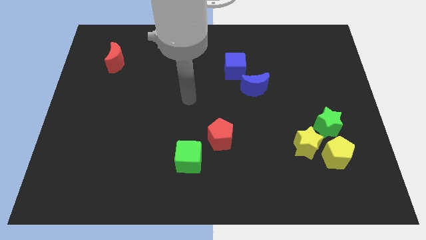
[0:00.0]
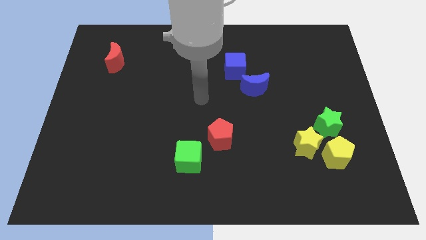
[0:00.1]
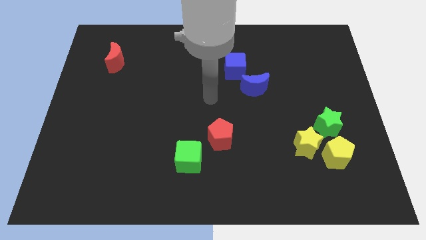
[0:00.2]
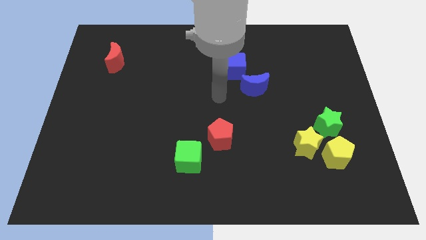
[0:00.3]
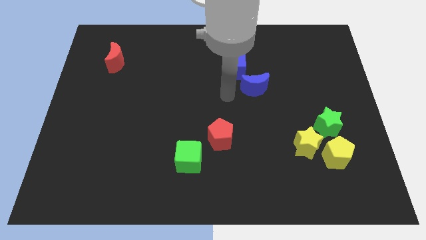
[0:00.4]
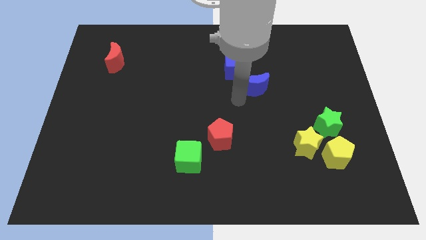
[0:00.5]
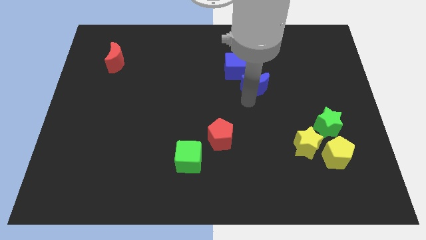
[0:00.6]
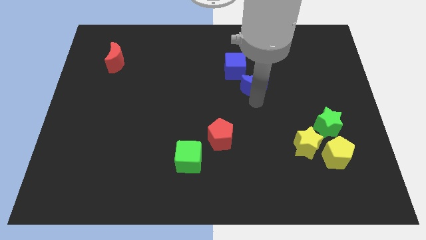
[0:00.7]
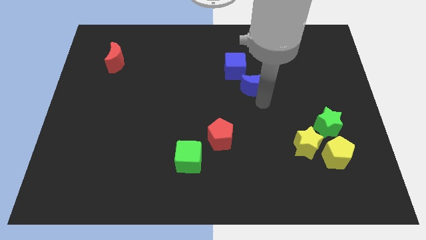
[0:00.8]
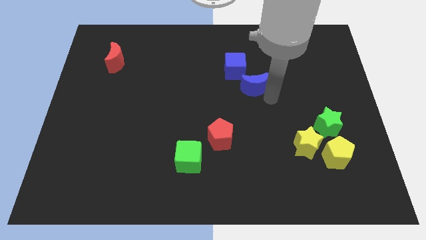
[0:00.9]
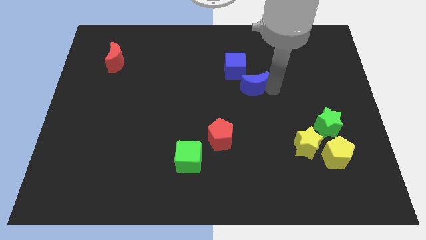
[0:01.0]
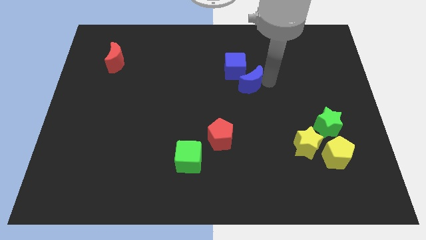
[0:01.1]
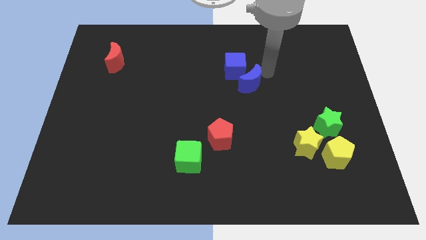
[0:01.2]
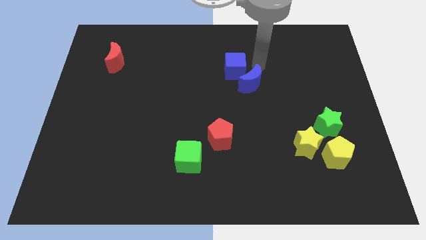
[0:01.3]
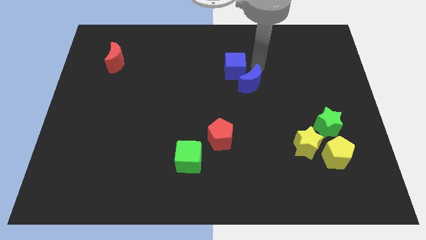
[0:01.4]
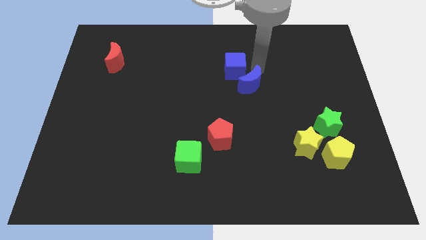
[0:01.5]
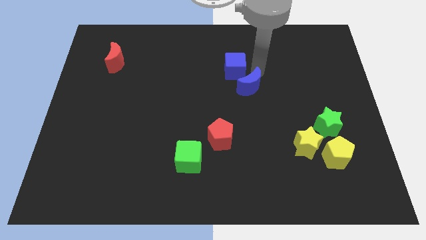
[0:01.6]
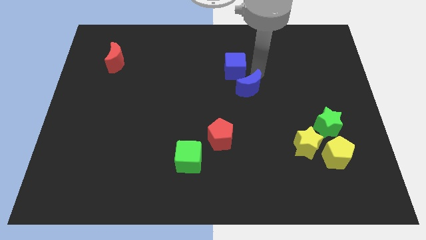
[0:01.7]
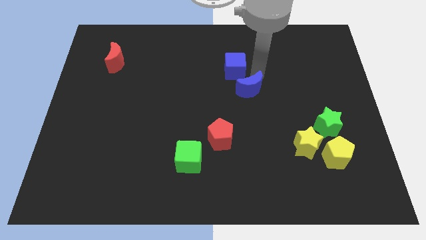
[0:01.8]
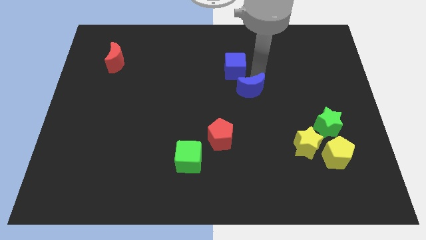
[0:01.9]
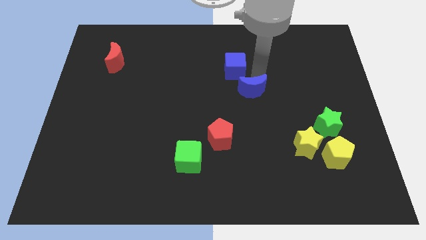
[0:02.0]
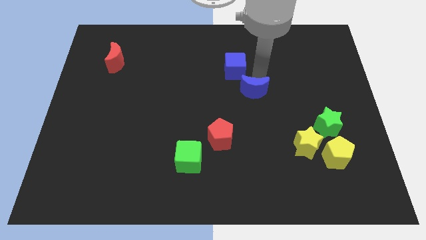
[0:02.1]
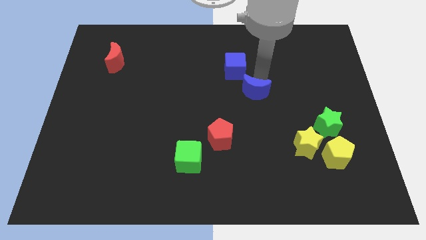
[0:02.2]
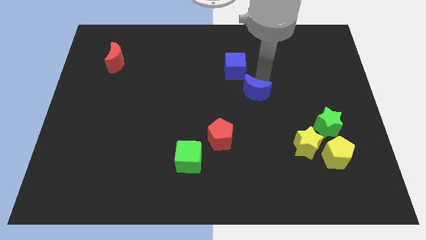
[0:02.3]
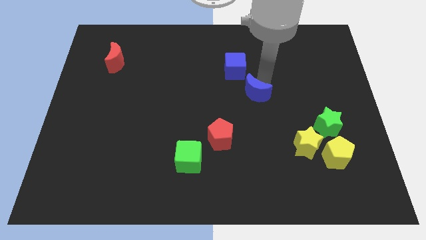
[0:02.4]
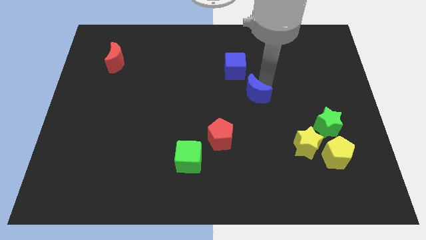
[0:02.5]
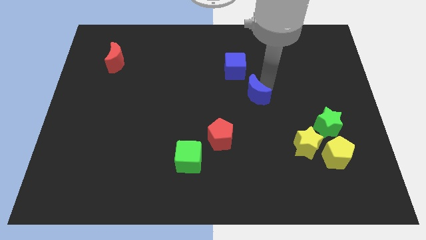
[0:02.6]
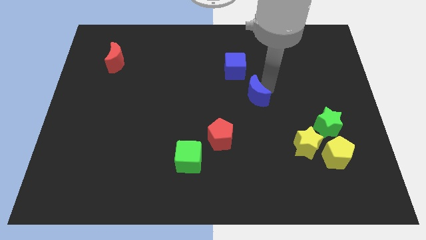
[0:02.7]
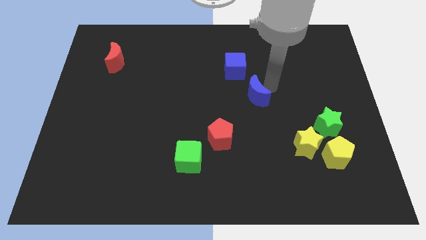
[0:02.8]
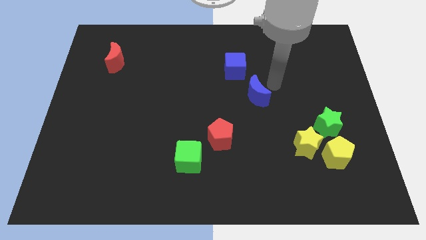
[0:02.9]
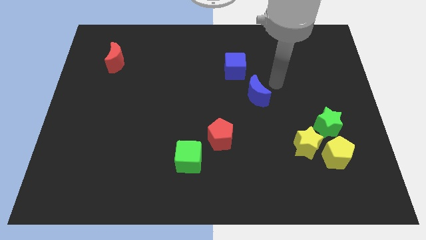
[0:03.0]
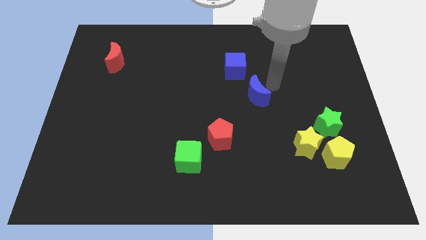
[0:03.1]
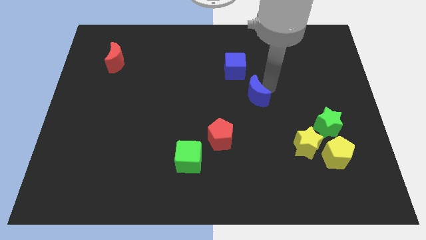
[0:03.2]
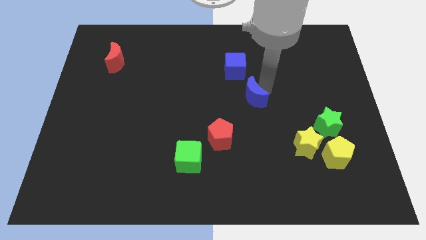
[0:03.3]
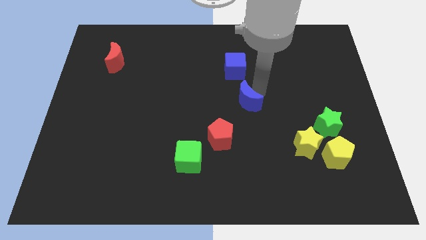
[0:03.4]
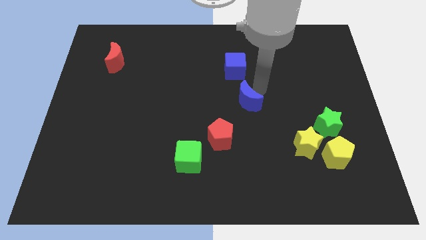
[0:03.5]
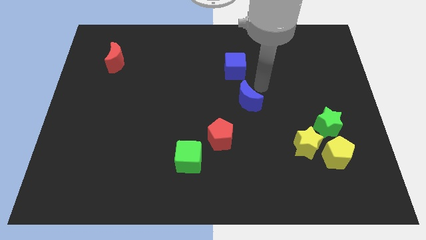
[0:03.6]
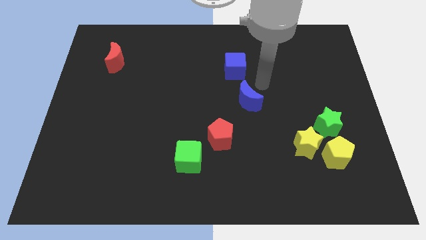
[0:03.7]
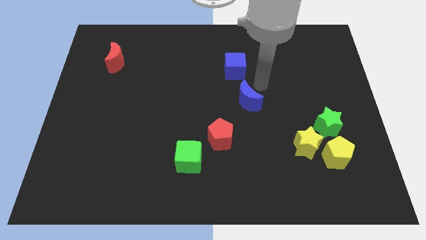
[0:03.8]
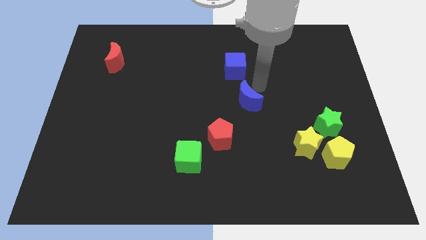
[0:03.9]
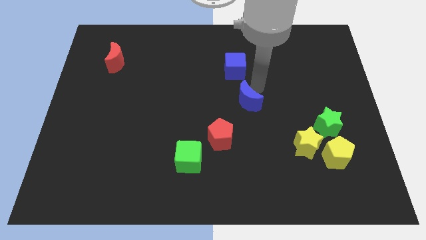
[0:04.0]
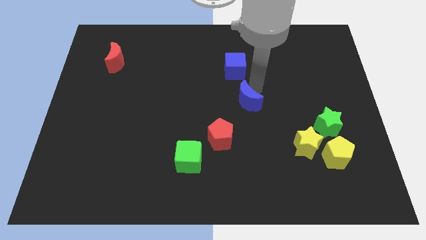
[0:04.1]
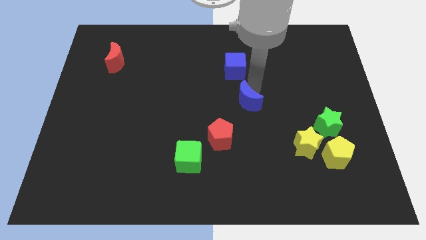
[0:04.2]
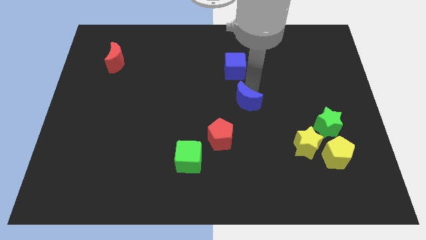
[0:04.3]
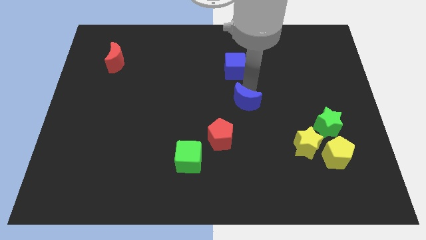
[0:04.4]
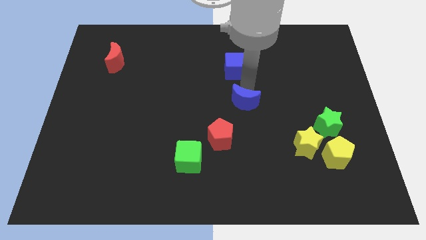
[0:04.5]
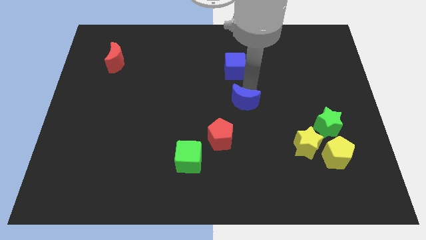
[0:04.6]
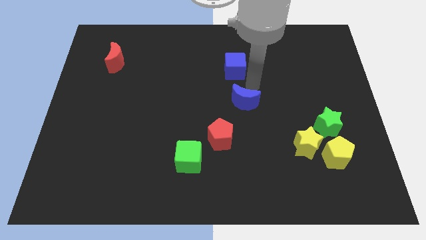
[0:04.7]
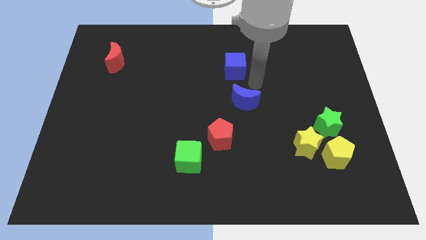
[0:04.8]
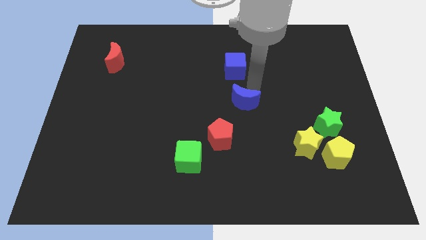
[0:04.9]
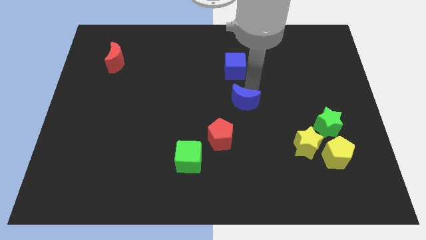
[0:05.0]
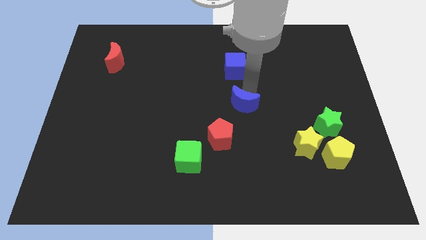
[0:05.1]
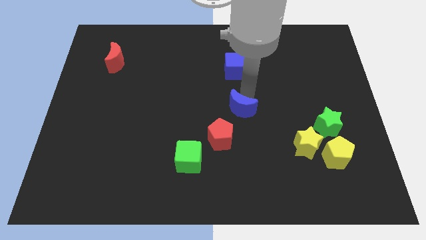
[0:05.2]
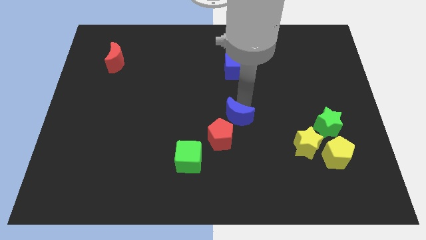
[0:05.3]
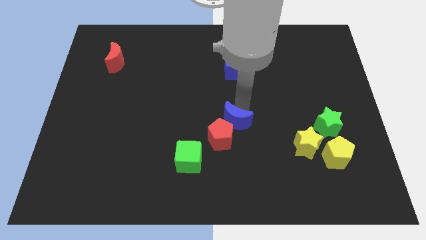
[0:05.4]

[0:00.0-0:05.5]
put the blue moon close to the red pentagon

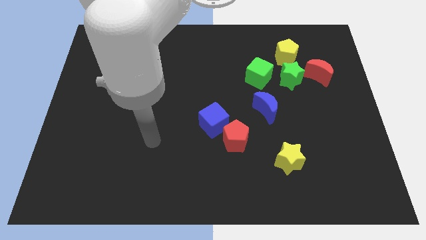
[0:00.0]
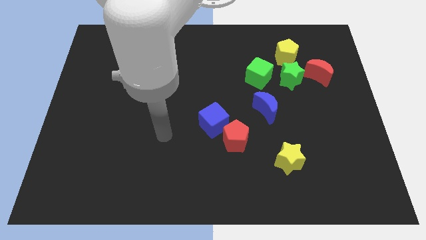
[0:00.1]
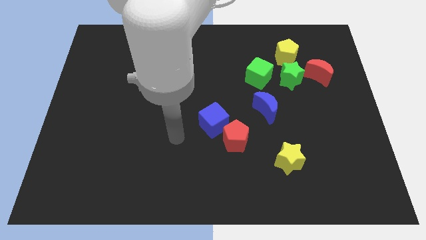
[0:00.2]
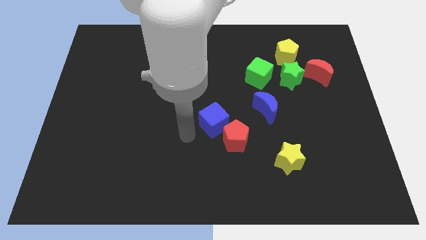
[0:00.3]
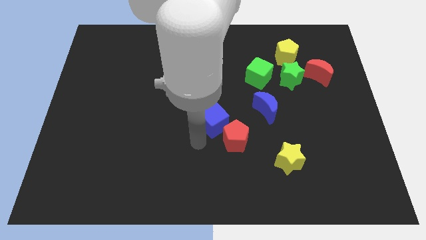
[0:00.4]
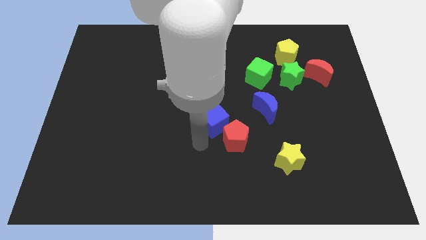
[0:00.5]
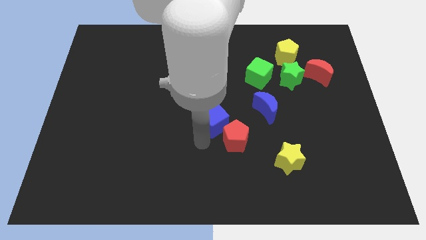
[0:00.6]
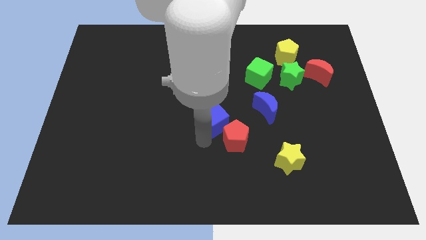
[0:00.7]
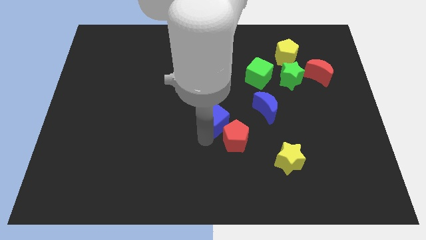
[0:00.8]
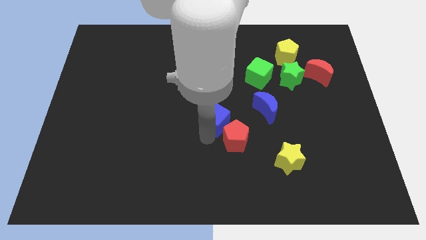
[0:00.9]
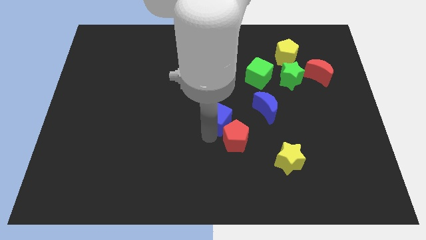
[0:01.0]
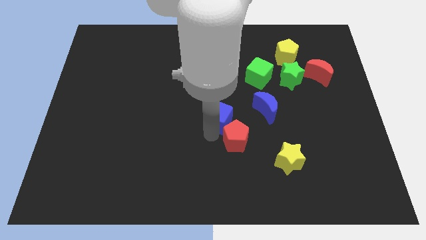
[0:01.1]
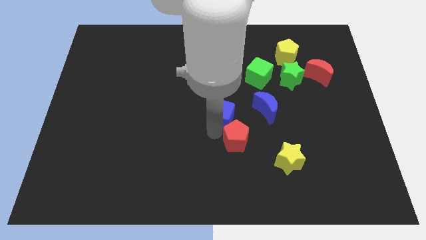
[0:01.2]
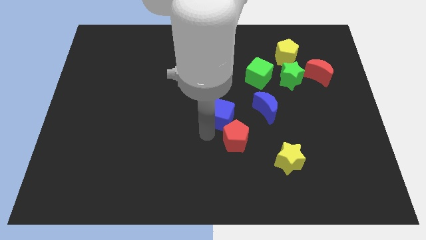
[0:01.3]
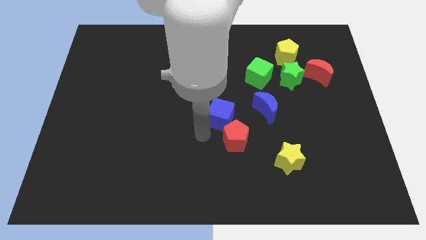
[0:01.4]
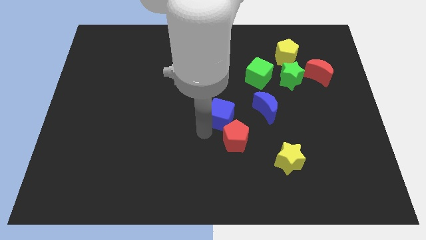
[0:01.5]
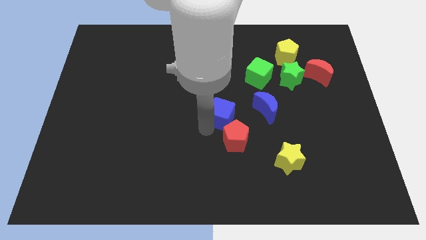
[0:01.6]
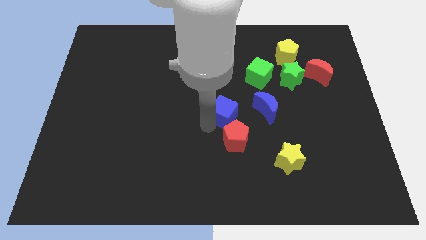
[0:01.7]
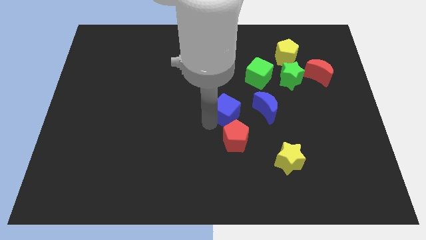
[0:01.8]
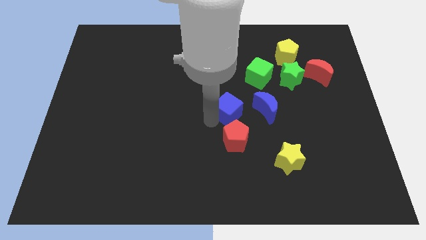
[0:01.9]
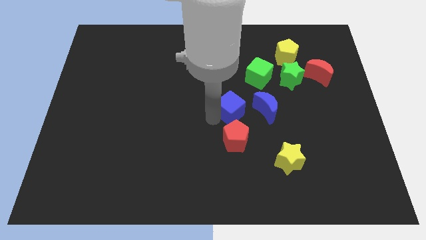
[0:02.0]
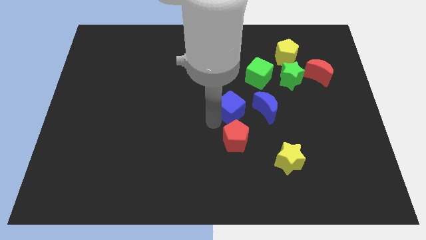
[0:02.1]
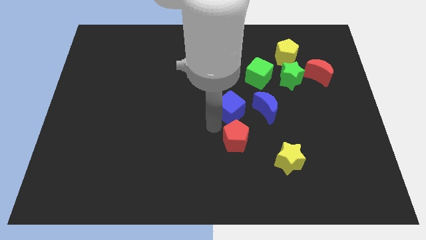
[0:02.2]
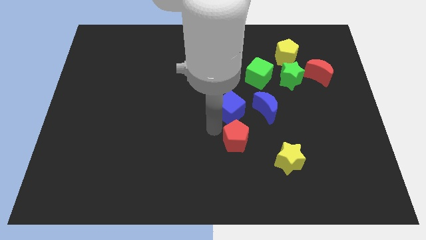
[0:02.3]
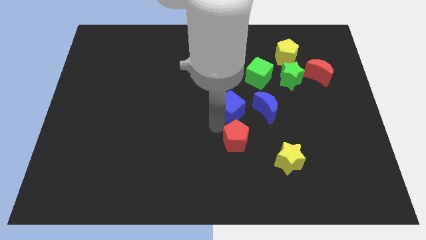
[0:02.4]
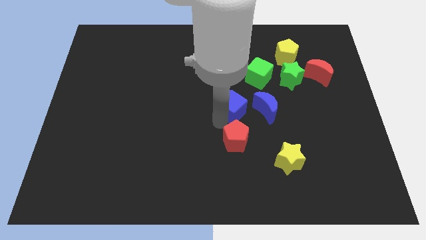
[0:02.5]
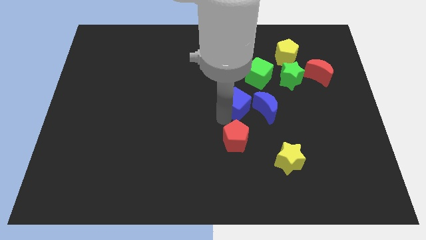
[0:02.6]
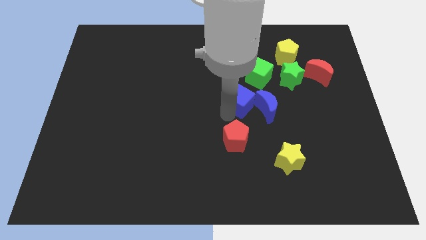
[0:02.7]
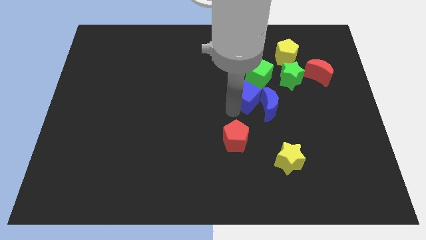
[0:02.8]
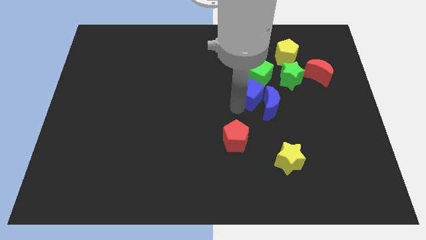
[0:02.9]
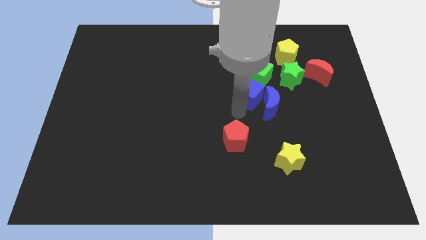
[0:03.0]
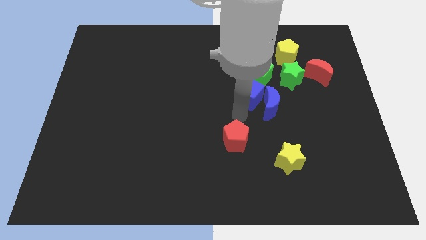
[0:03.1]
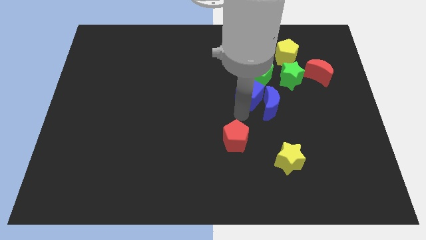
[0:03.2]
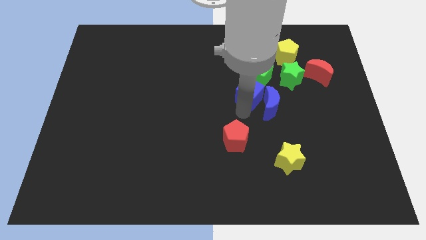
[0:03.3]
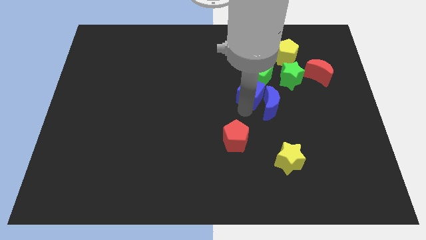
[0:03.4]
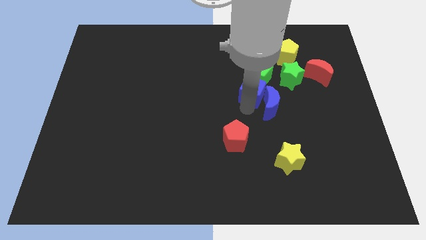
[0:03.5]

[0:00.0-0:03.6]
slide the blue cube next to the green cube
